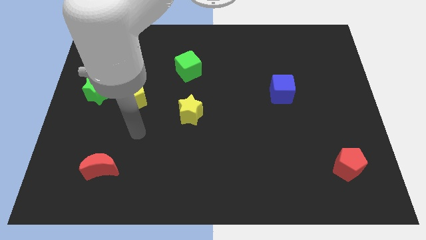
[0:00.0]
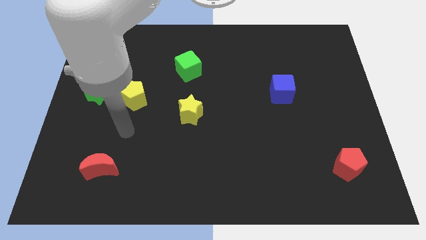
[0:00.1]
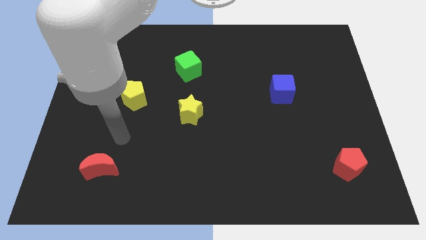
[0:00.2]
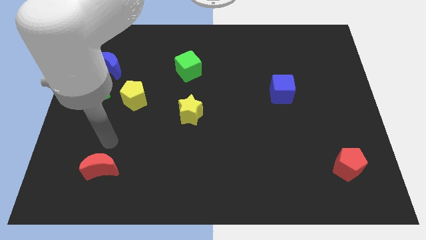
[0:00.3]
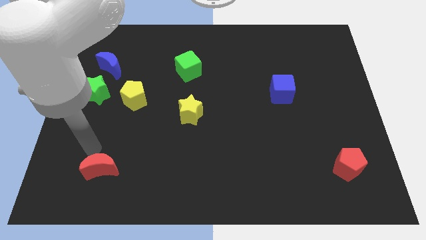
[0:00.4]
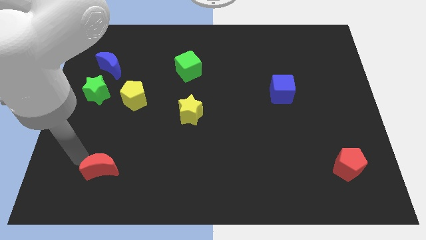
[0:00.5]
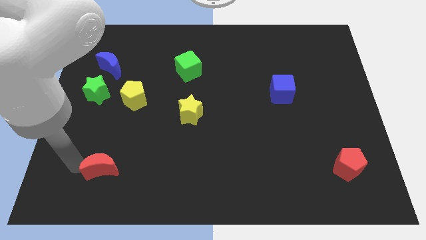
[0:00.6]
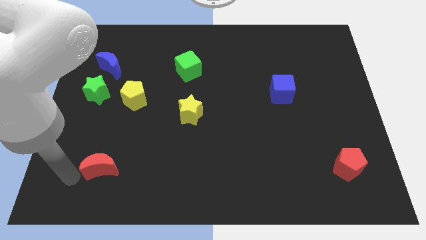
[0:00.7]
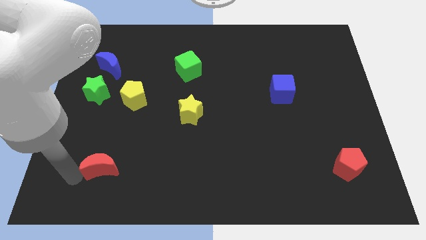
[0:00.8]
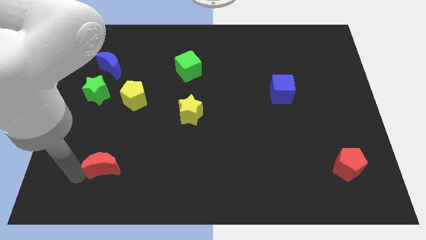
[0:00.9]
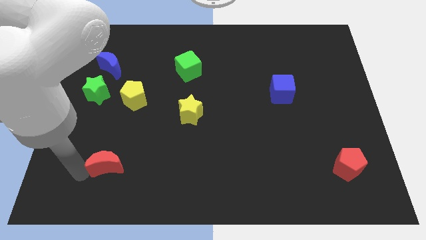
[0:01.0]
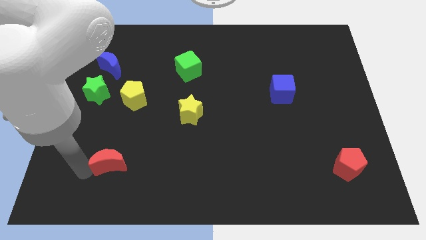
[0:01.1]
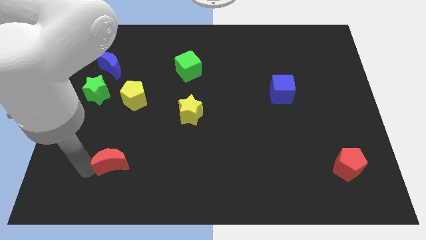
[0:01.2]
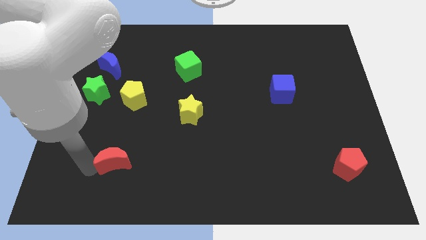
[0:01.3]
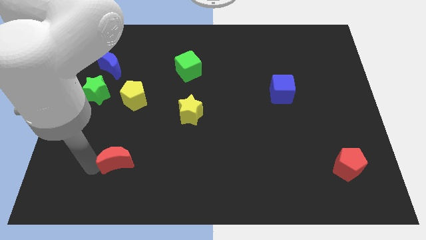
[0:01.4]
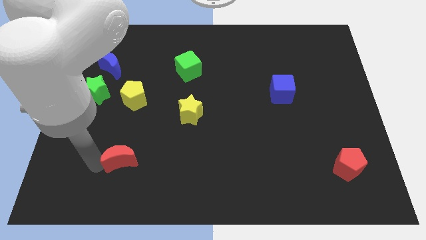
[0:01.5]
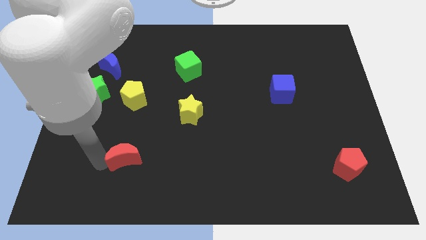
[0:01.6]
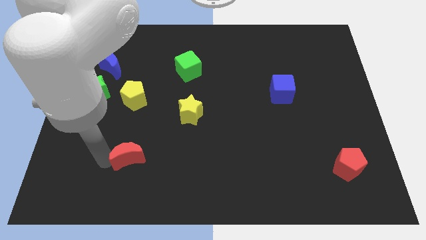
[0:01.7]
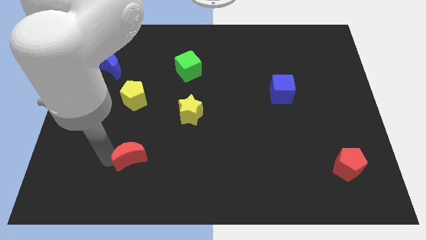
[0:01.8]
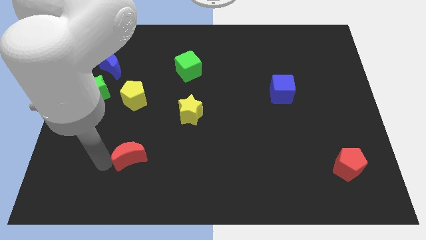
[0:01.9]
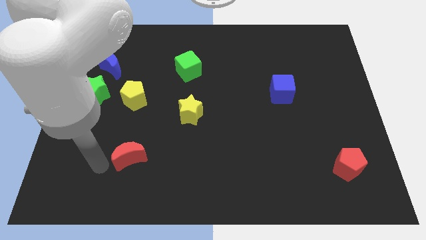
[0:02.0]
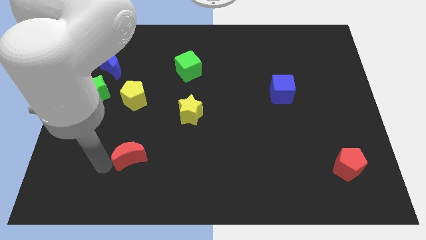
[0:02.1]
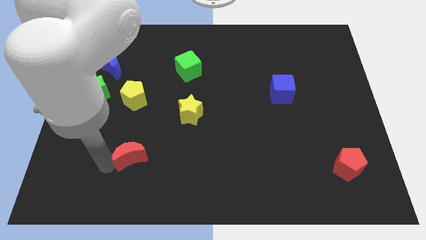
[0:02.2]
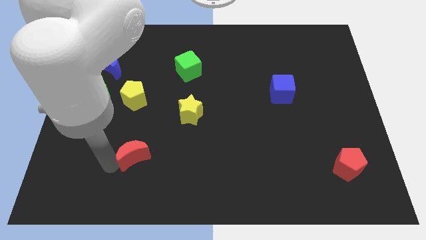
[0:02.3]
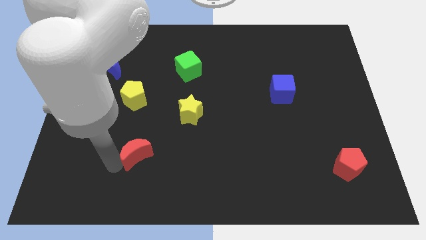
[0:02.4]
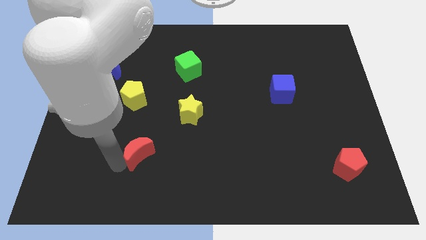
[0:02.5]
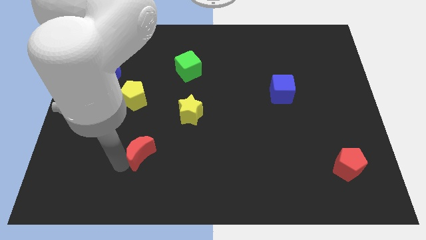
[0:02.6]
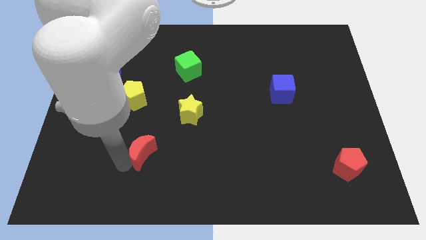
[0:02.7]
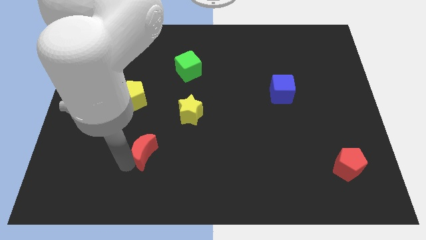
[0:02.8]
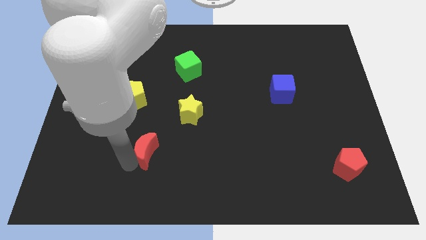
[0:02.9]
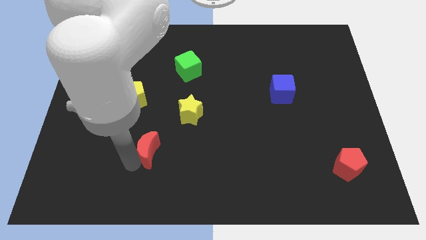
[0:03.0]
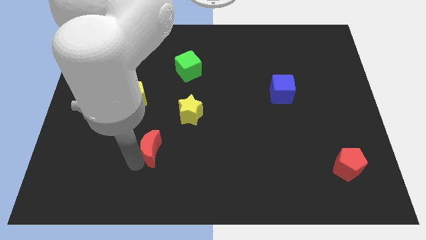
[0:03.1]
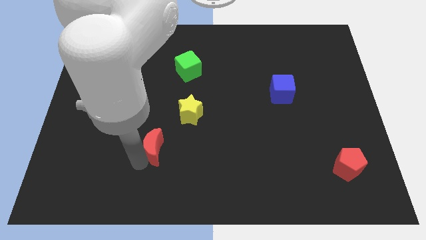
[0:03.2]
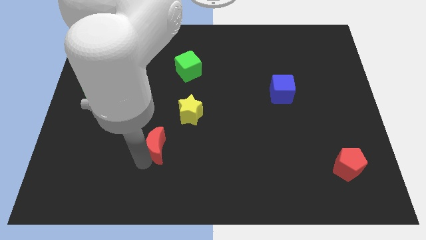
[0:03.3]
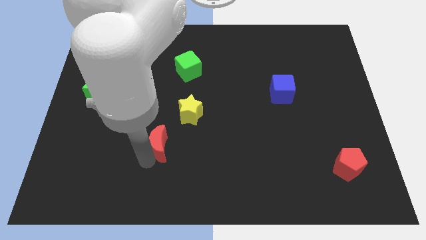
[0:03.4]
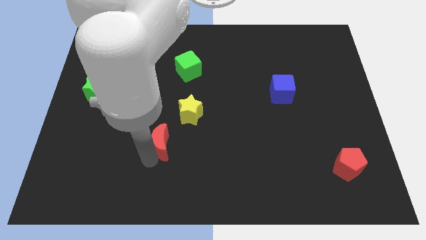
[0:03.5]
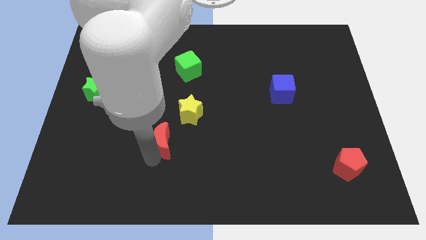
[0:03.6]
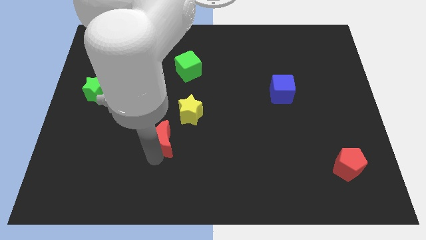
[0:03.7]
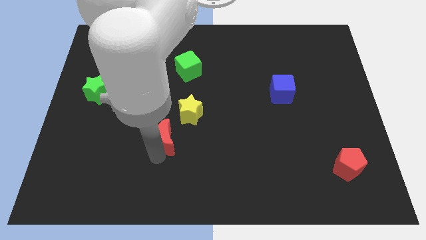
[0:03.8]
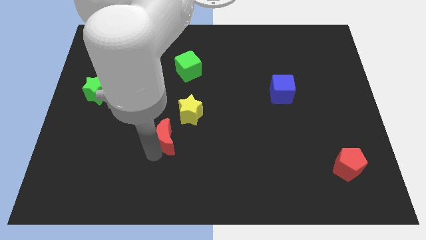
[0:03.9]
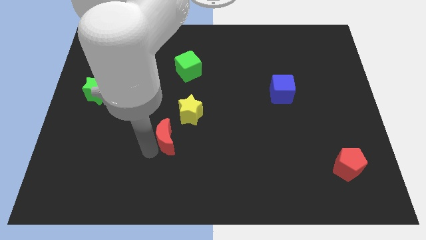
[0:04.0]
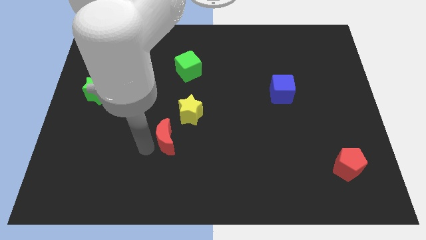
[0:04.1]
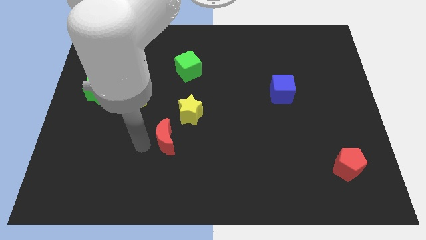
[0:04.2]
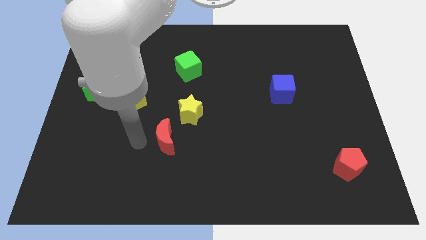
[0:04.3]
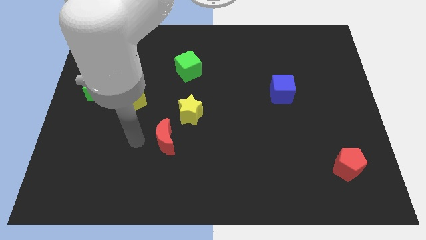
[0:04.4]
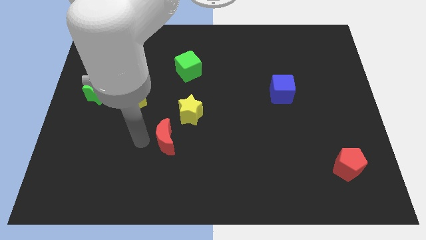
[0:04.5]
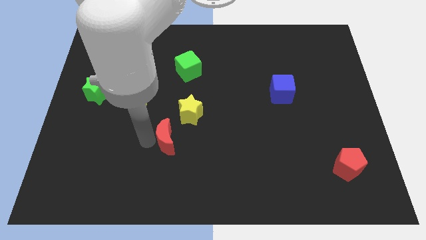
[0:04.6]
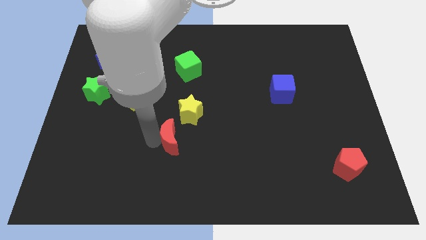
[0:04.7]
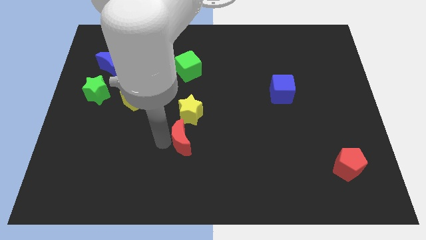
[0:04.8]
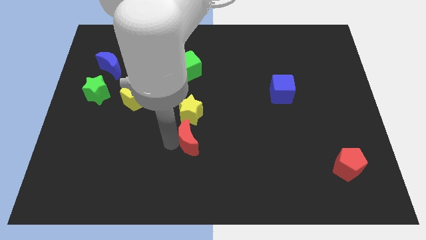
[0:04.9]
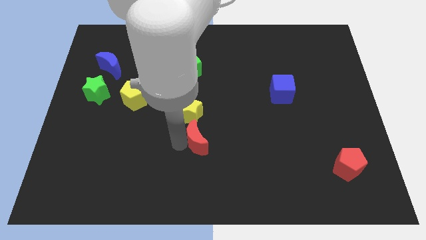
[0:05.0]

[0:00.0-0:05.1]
put the red moon to the bottom right side of the yellow star

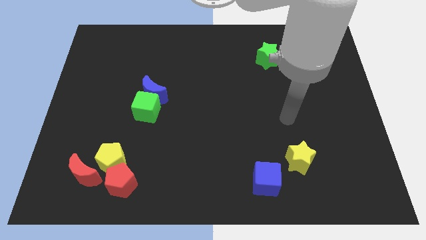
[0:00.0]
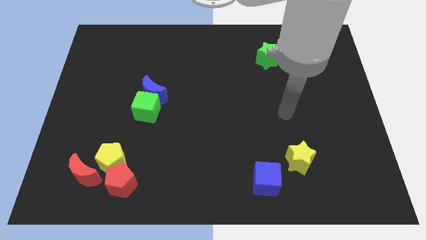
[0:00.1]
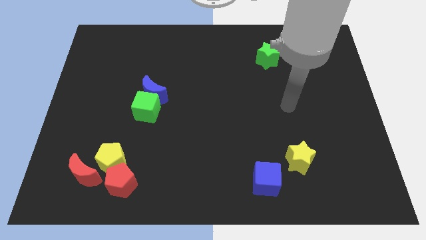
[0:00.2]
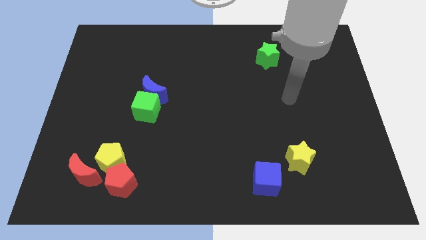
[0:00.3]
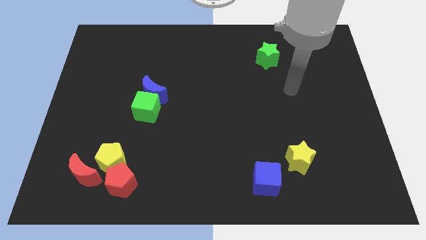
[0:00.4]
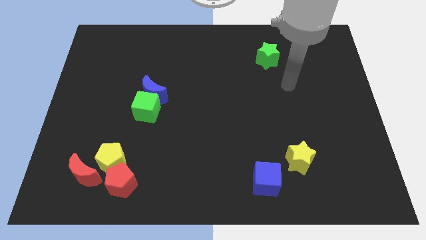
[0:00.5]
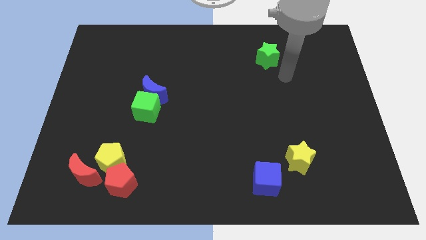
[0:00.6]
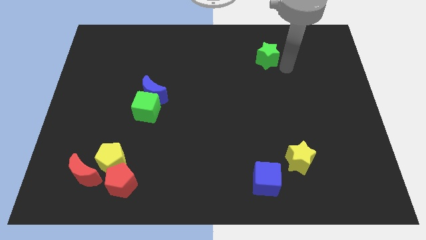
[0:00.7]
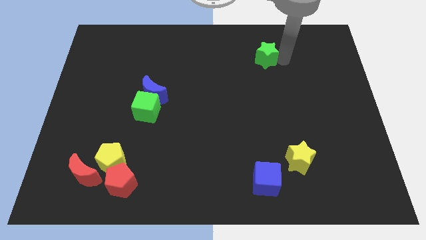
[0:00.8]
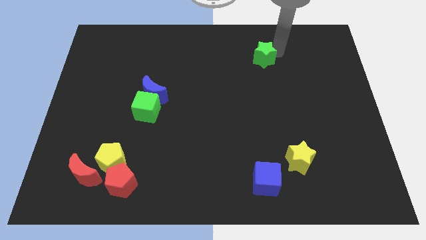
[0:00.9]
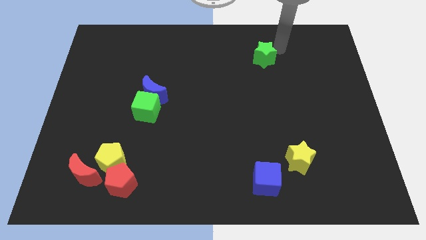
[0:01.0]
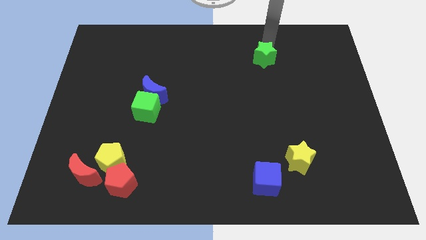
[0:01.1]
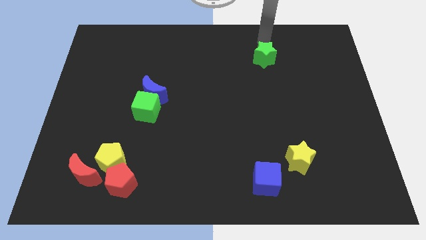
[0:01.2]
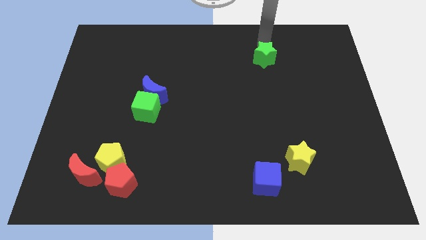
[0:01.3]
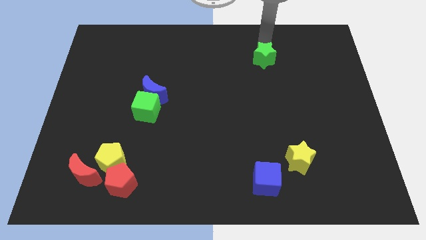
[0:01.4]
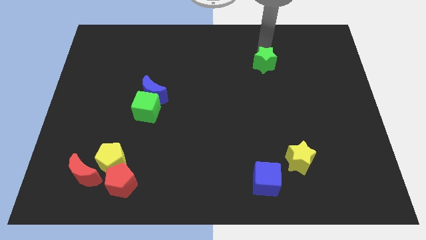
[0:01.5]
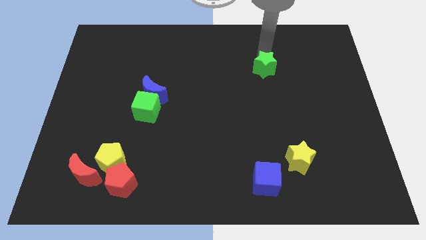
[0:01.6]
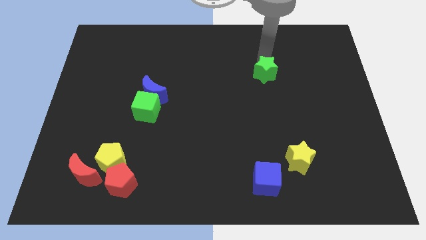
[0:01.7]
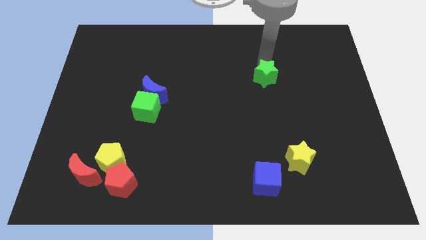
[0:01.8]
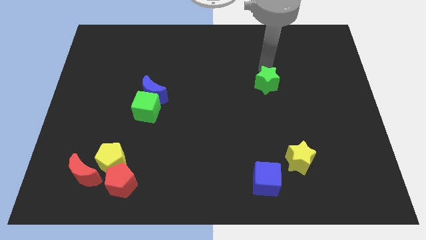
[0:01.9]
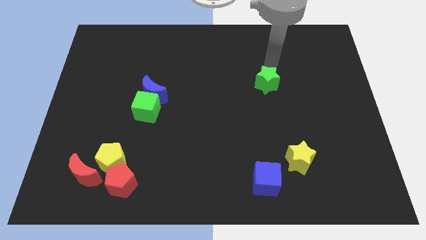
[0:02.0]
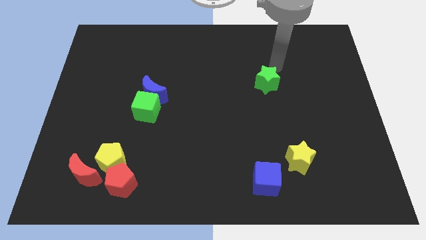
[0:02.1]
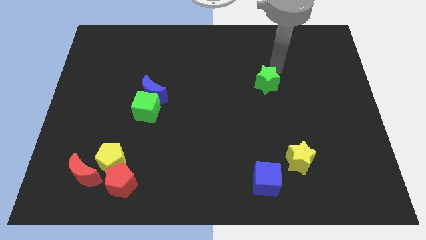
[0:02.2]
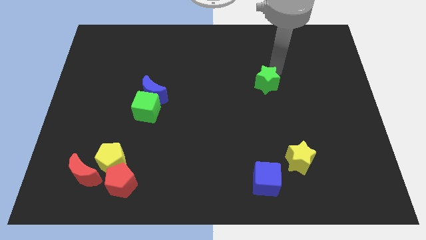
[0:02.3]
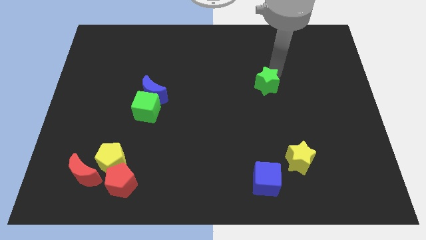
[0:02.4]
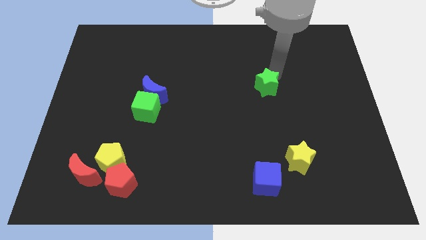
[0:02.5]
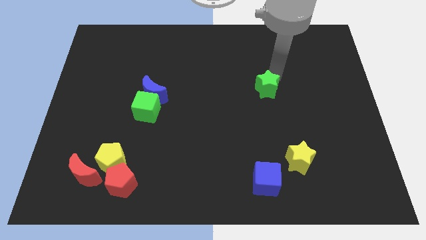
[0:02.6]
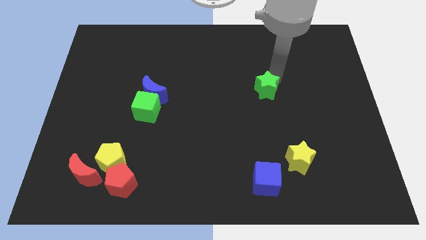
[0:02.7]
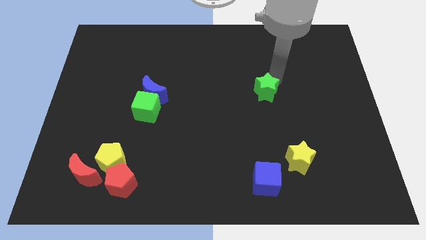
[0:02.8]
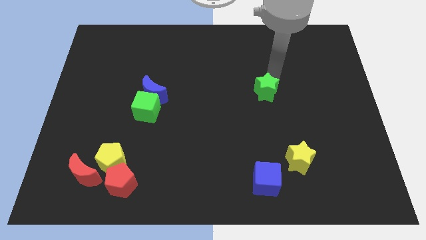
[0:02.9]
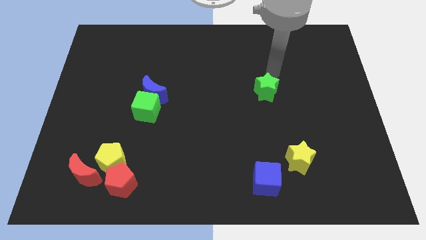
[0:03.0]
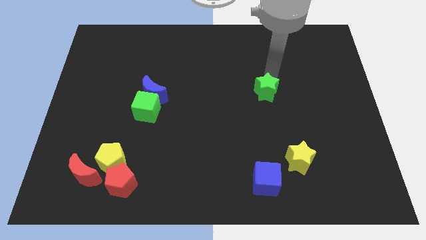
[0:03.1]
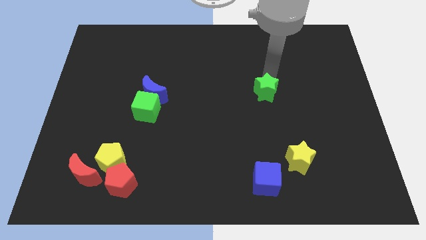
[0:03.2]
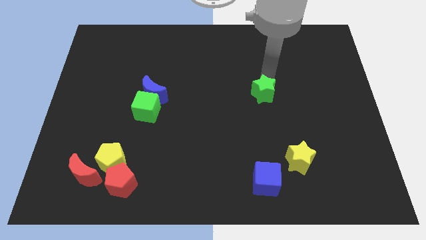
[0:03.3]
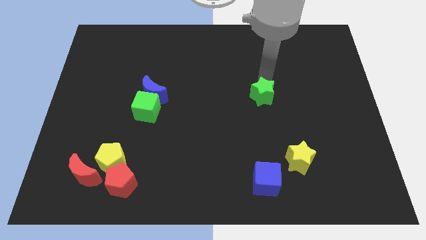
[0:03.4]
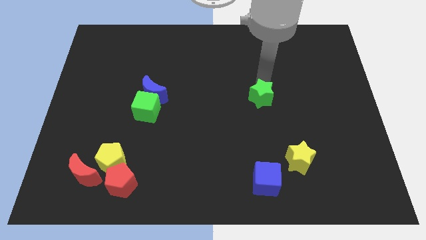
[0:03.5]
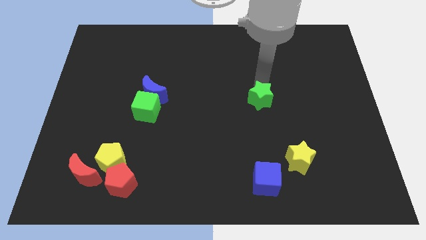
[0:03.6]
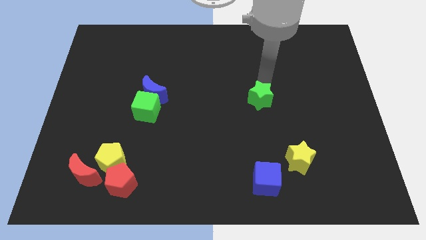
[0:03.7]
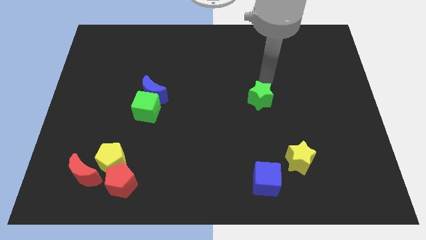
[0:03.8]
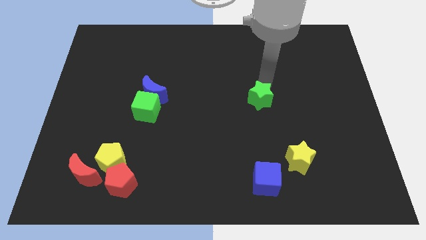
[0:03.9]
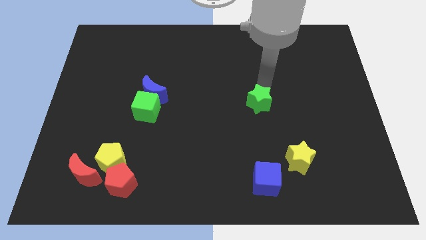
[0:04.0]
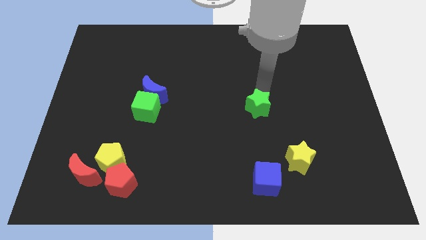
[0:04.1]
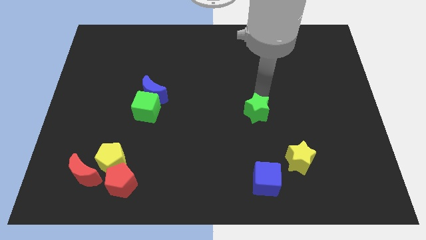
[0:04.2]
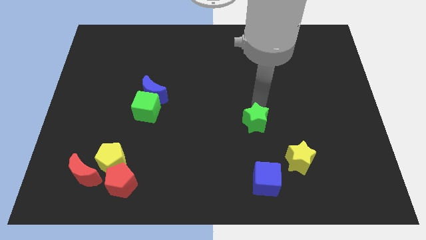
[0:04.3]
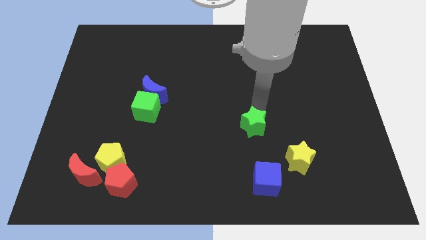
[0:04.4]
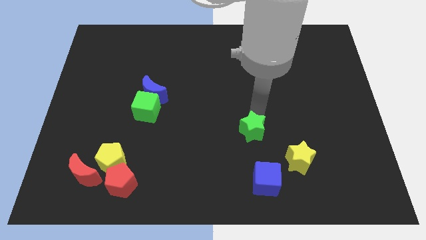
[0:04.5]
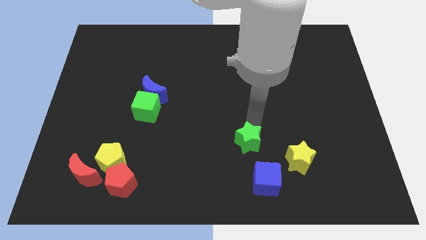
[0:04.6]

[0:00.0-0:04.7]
slide the green star just left of the yellow star
